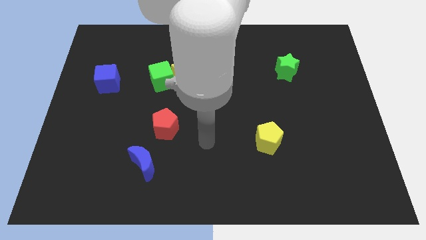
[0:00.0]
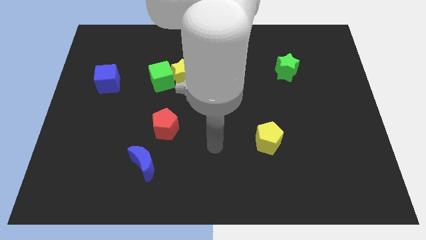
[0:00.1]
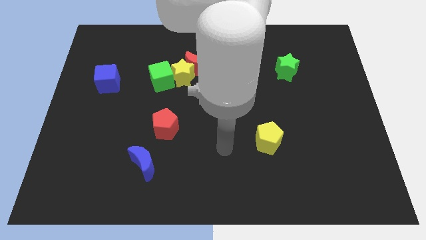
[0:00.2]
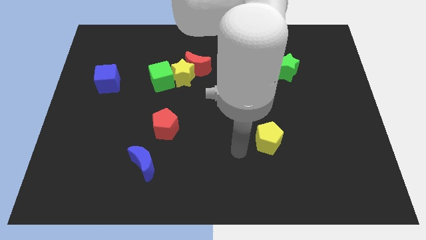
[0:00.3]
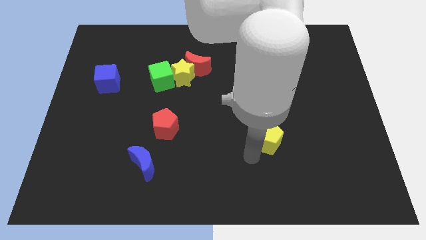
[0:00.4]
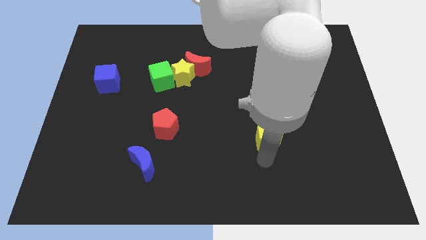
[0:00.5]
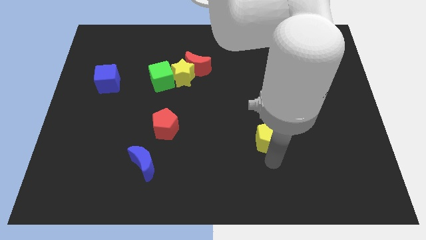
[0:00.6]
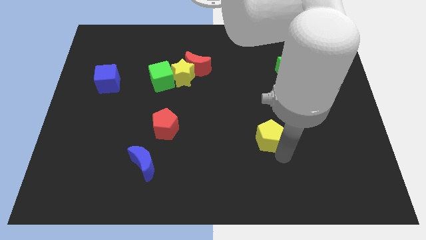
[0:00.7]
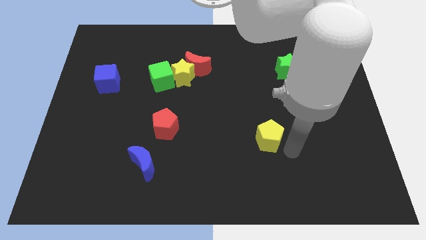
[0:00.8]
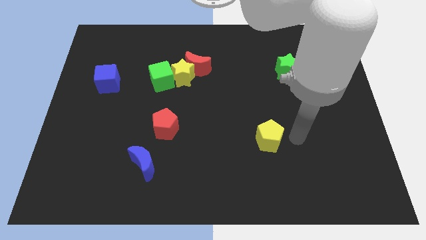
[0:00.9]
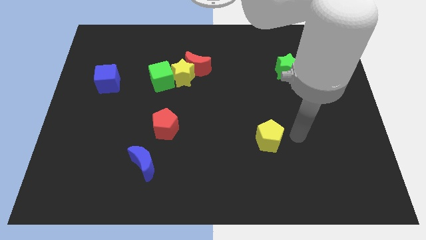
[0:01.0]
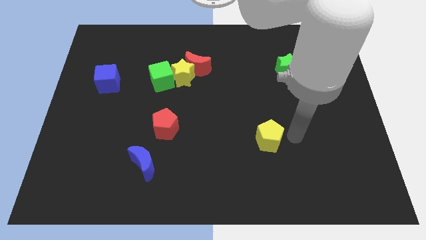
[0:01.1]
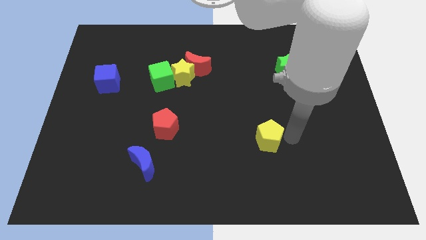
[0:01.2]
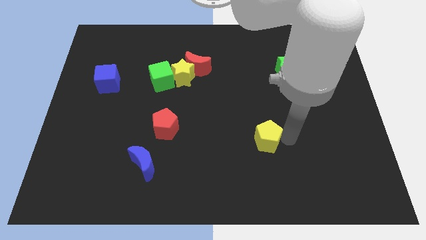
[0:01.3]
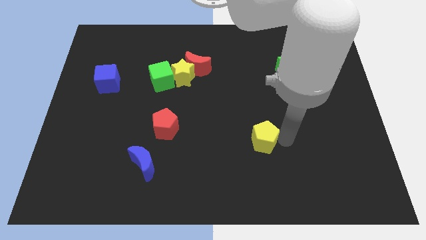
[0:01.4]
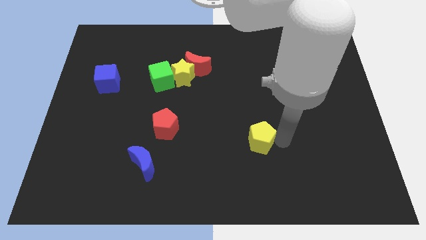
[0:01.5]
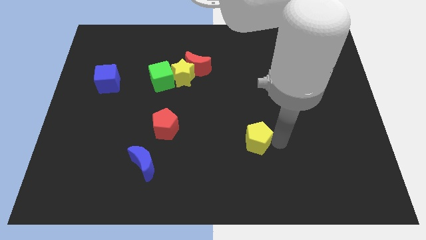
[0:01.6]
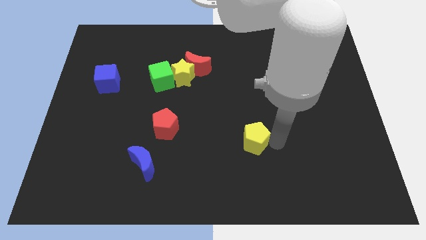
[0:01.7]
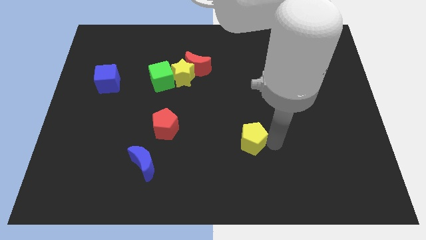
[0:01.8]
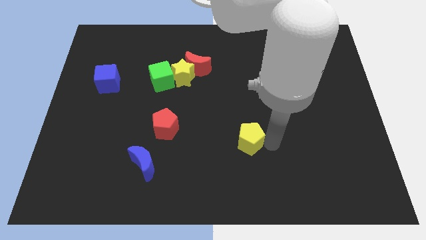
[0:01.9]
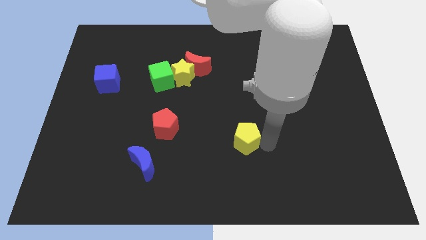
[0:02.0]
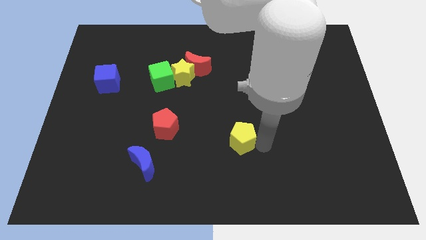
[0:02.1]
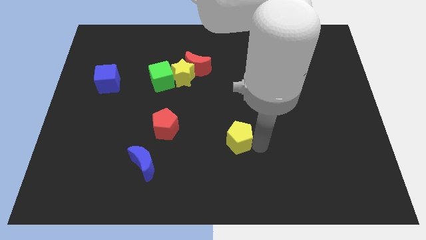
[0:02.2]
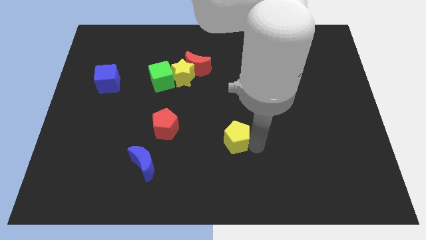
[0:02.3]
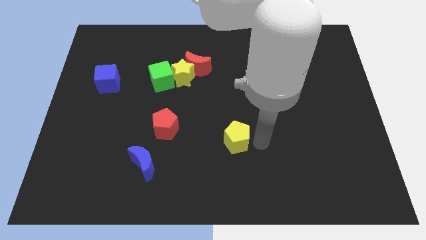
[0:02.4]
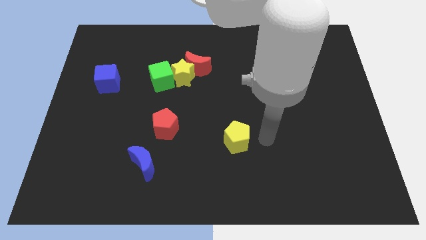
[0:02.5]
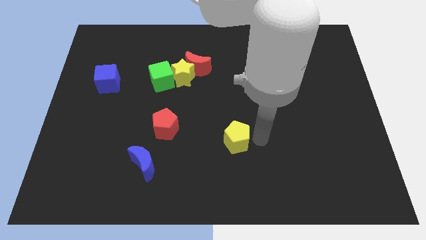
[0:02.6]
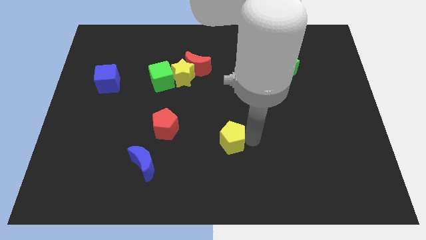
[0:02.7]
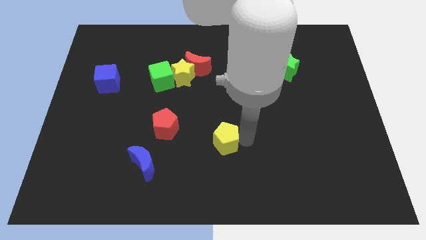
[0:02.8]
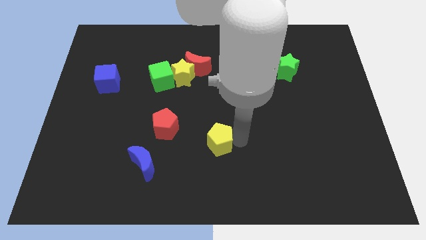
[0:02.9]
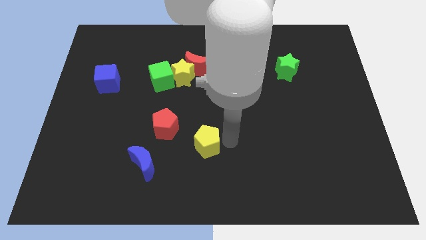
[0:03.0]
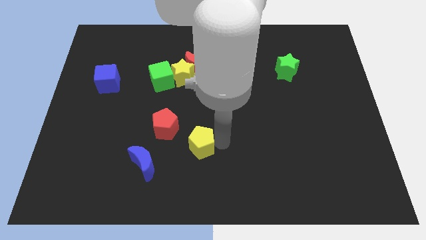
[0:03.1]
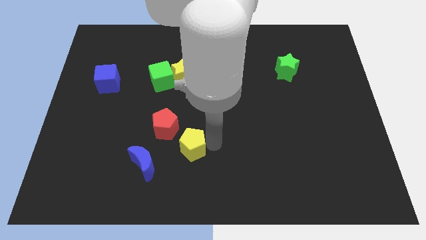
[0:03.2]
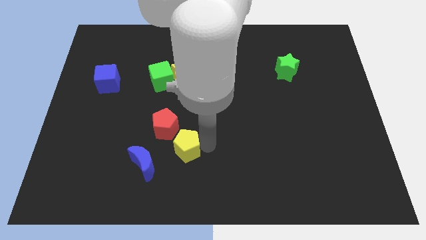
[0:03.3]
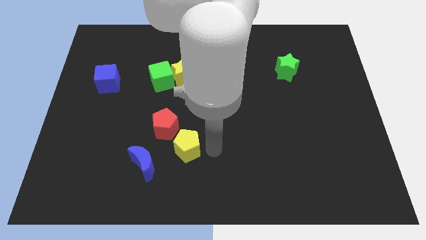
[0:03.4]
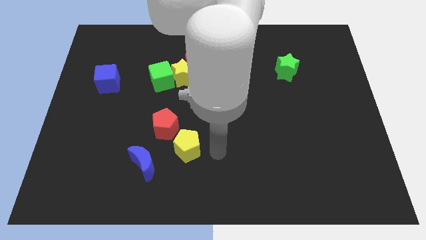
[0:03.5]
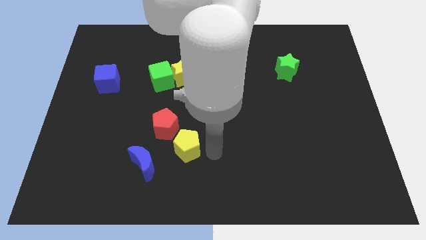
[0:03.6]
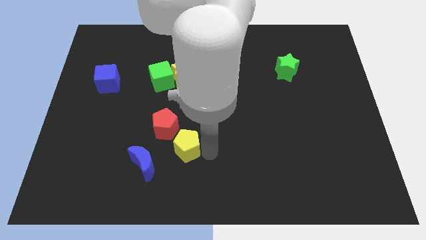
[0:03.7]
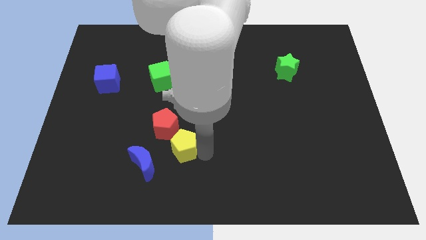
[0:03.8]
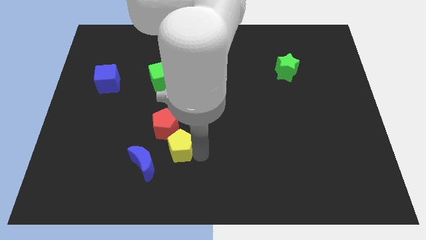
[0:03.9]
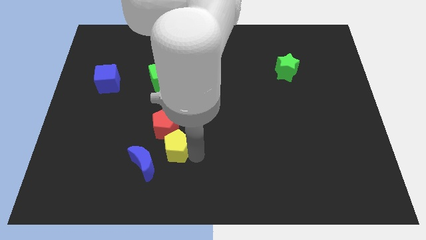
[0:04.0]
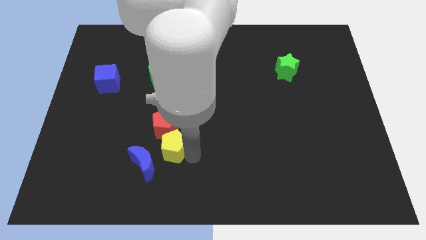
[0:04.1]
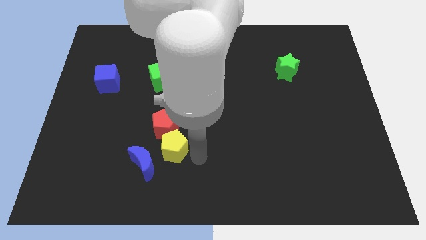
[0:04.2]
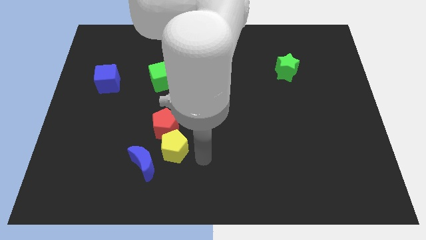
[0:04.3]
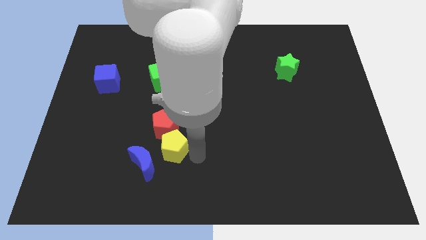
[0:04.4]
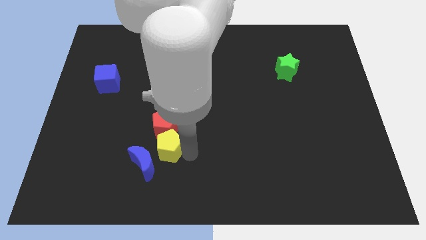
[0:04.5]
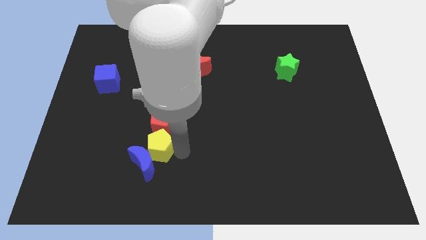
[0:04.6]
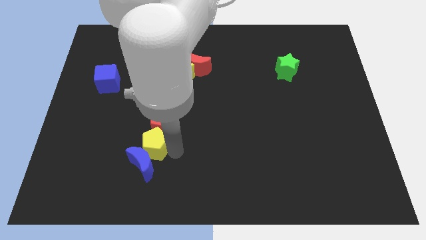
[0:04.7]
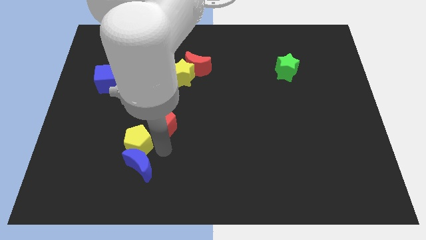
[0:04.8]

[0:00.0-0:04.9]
move the yellow pentagon to the left side of the red pentagon

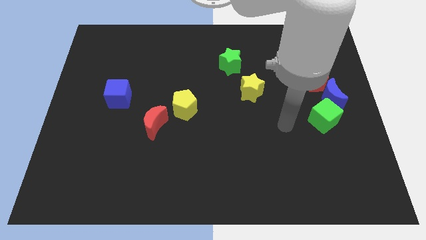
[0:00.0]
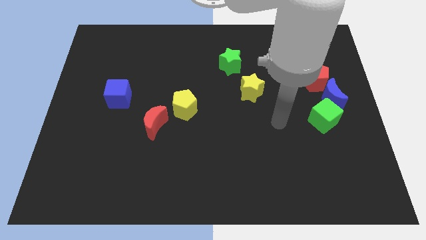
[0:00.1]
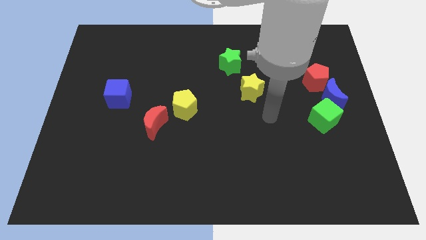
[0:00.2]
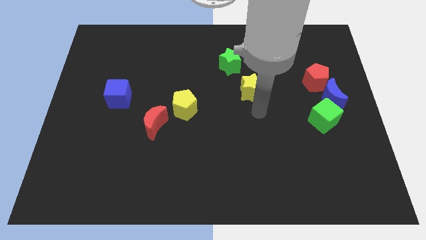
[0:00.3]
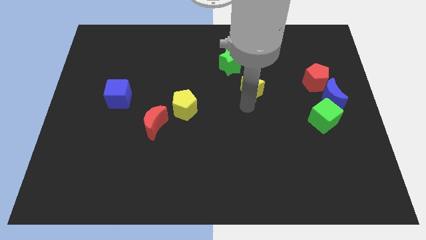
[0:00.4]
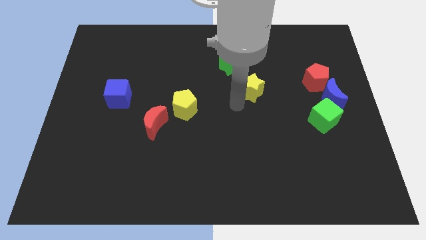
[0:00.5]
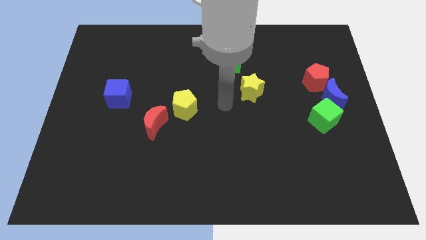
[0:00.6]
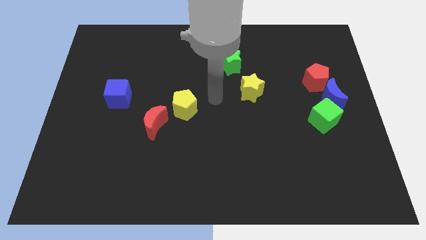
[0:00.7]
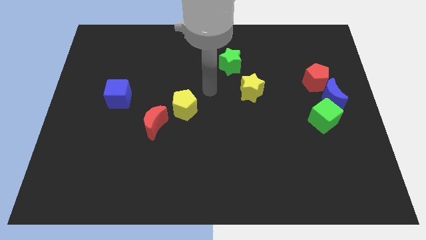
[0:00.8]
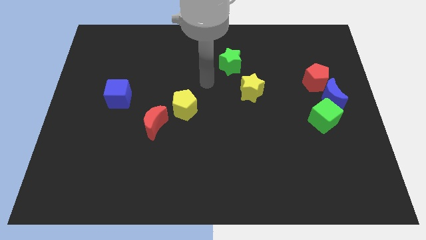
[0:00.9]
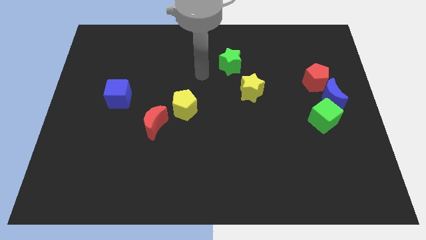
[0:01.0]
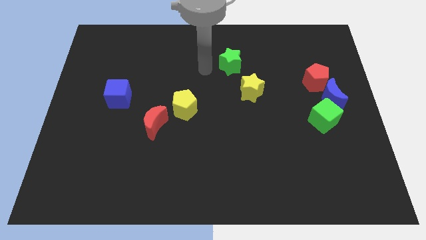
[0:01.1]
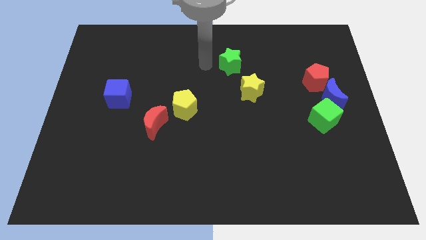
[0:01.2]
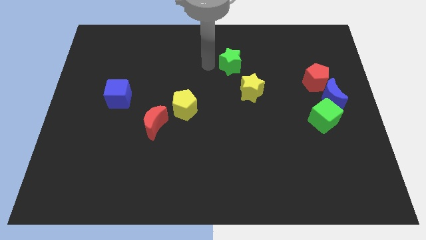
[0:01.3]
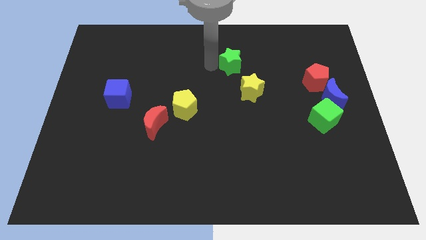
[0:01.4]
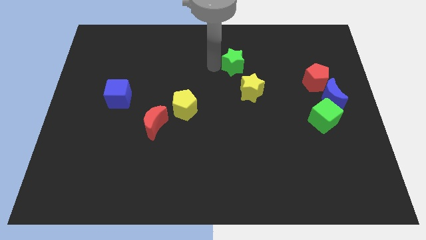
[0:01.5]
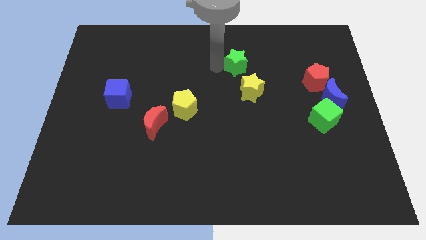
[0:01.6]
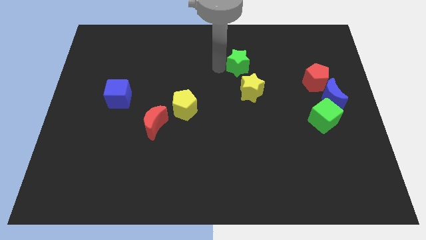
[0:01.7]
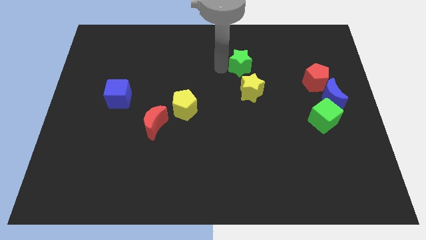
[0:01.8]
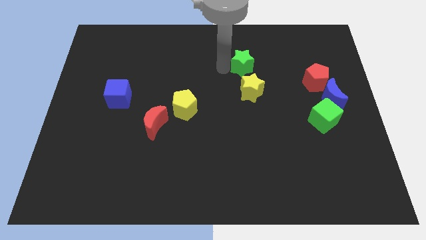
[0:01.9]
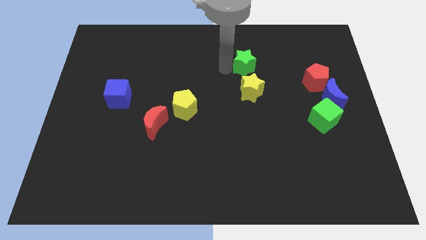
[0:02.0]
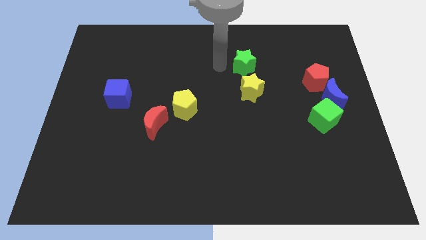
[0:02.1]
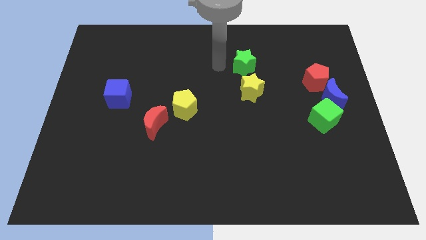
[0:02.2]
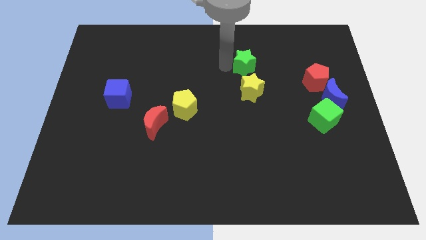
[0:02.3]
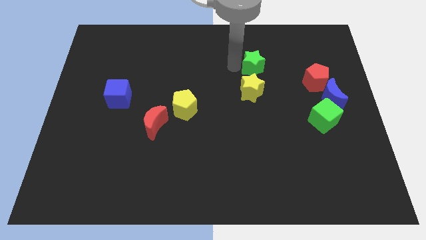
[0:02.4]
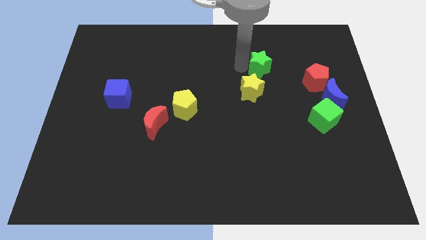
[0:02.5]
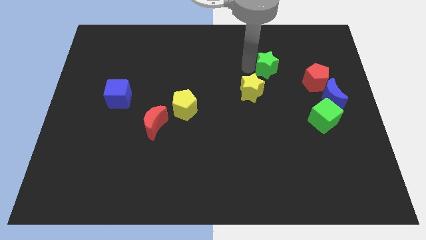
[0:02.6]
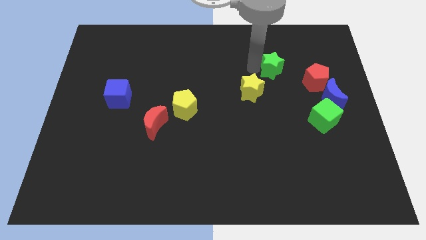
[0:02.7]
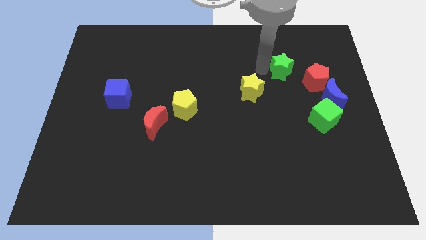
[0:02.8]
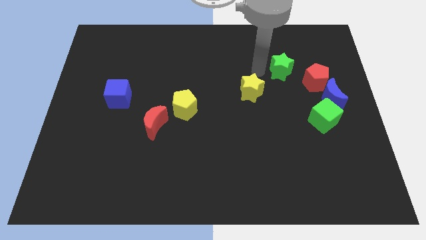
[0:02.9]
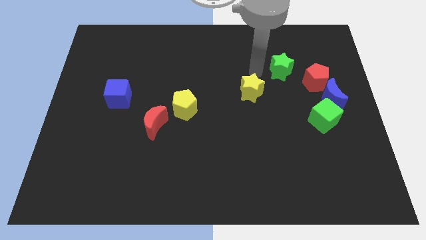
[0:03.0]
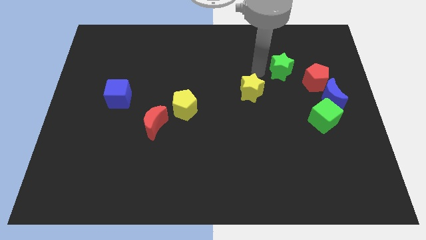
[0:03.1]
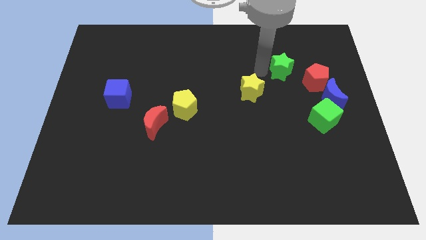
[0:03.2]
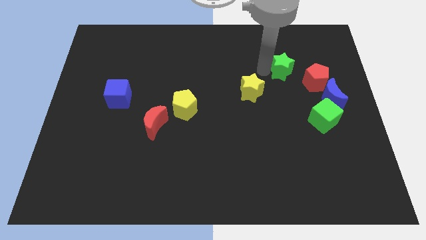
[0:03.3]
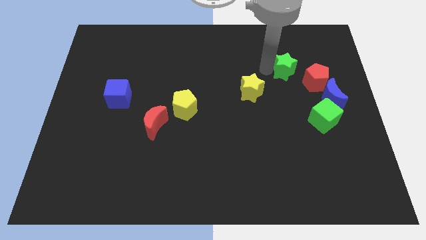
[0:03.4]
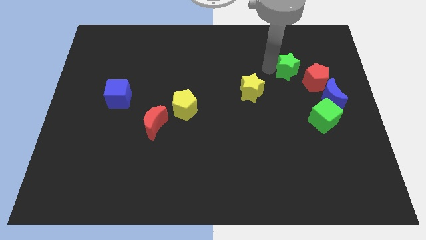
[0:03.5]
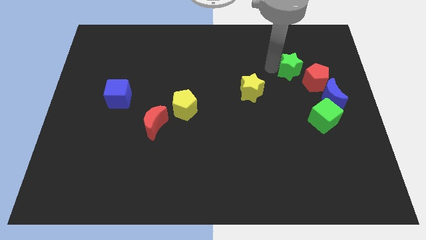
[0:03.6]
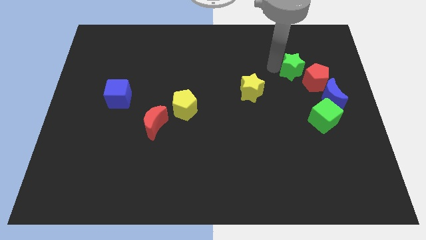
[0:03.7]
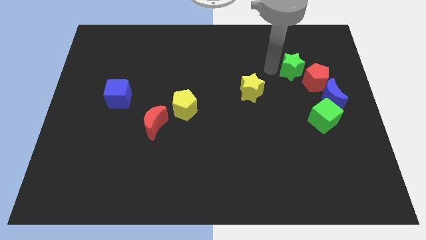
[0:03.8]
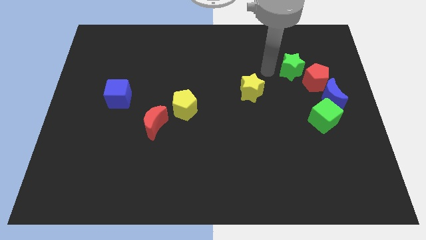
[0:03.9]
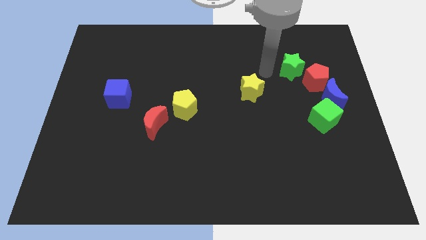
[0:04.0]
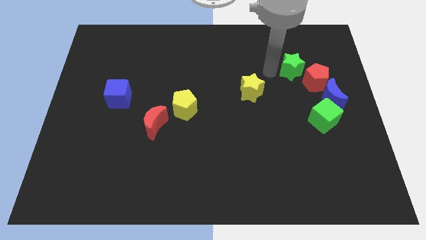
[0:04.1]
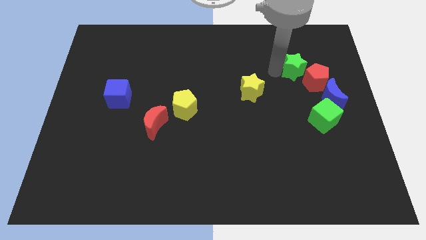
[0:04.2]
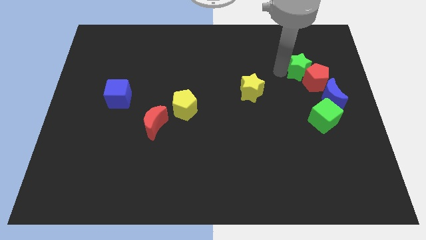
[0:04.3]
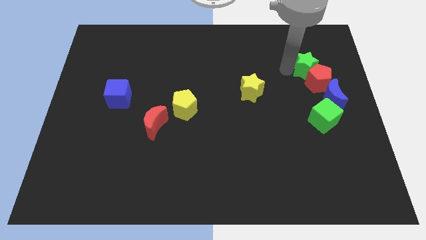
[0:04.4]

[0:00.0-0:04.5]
slide the green star to the top of the green cube
